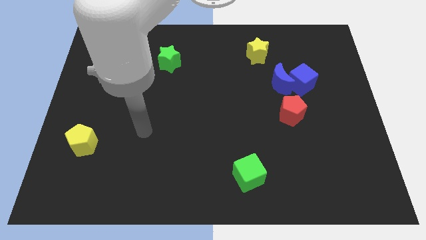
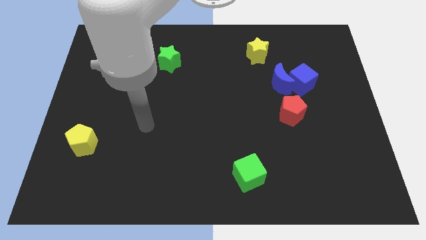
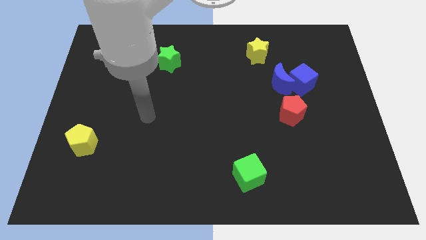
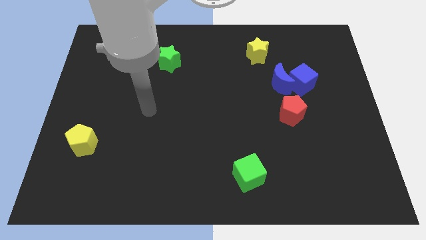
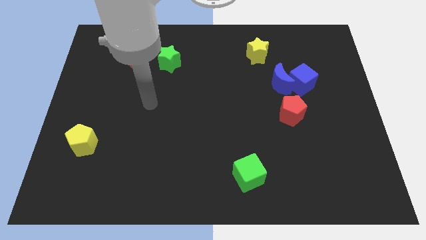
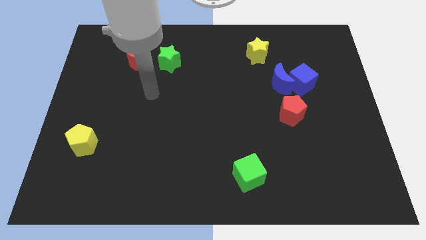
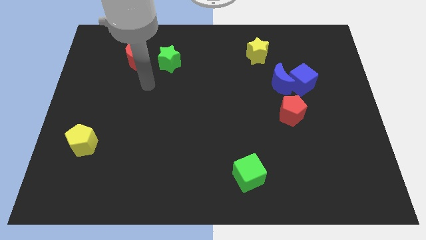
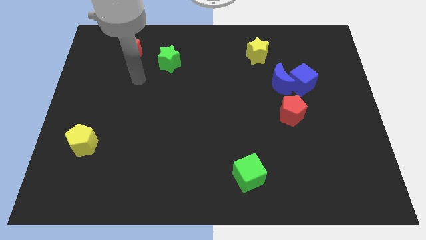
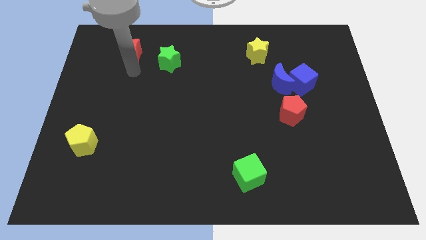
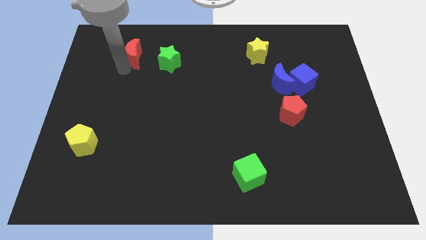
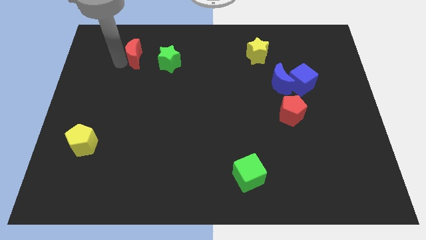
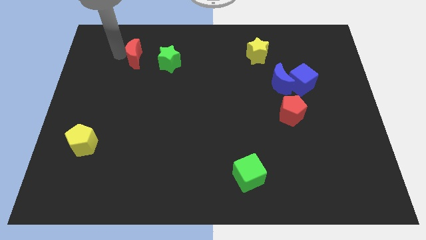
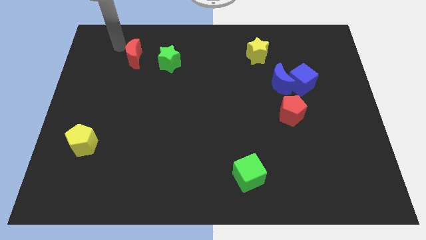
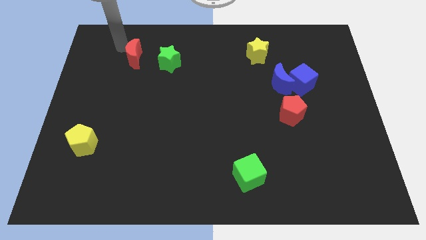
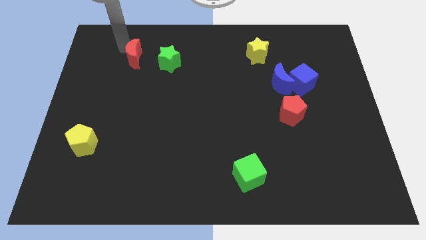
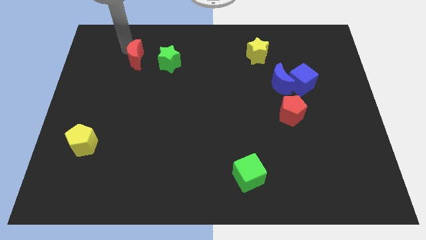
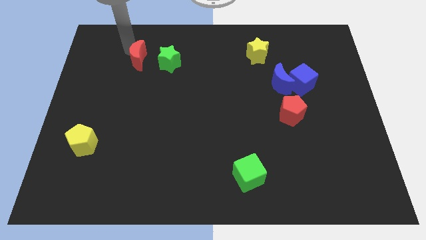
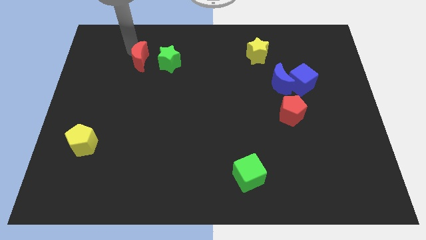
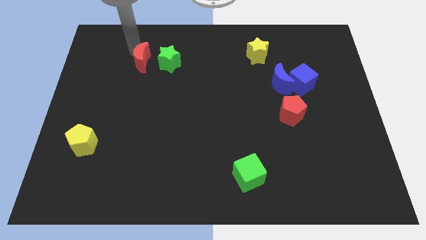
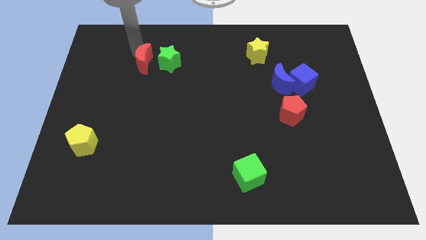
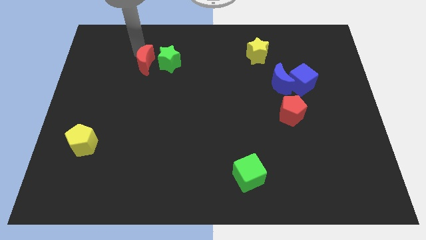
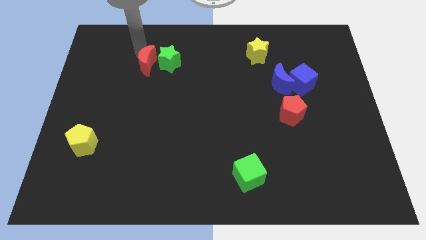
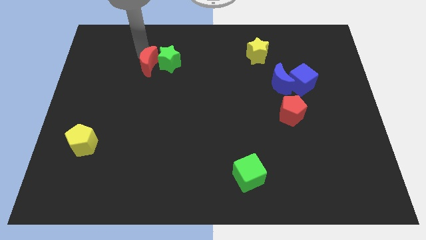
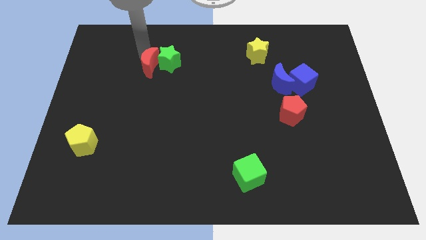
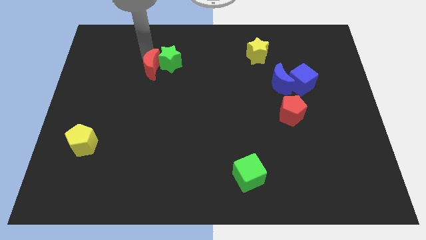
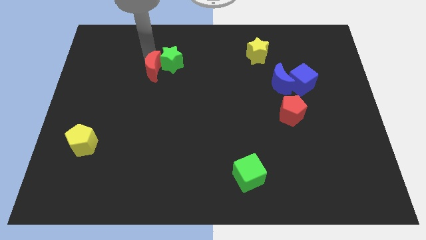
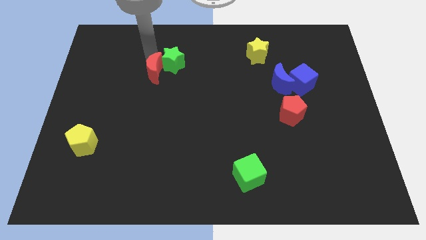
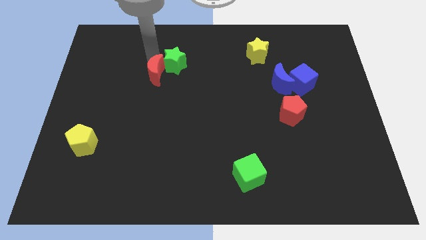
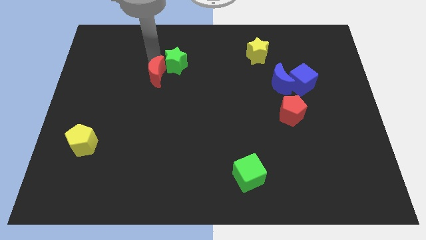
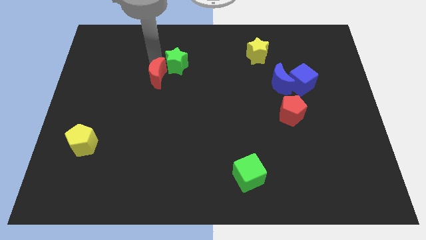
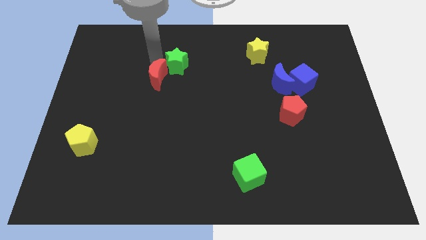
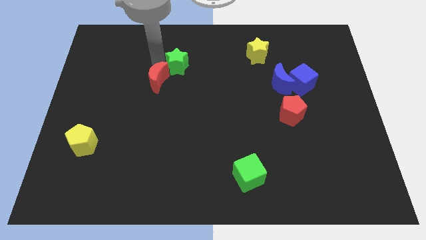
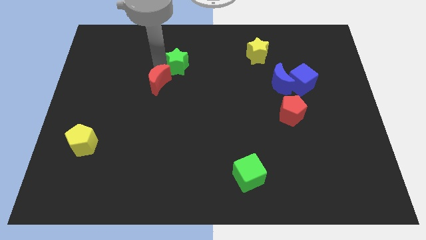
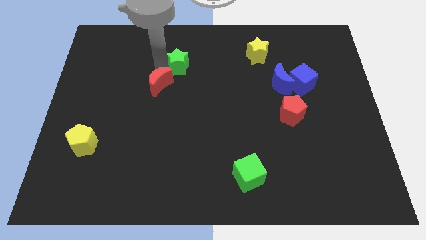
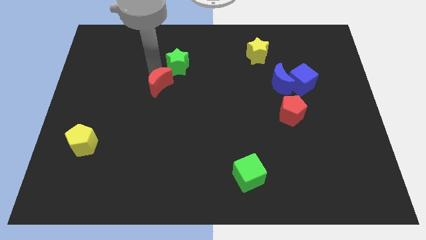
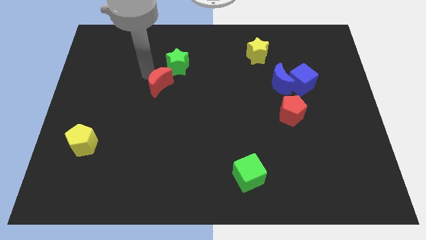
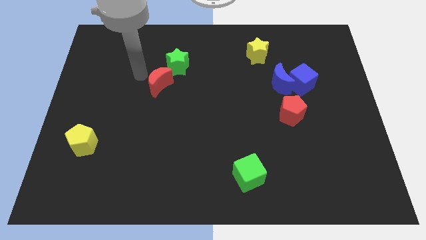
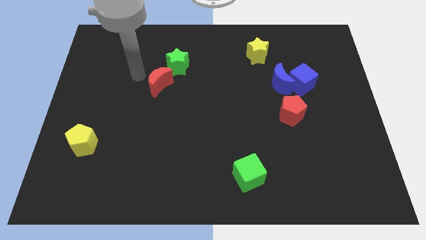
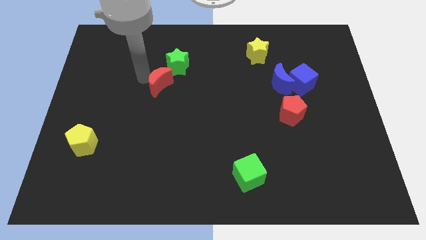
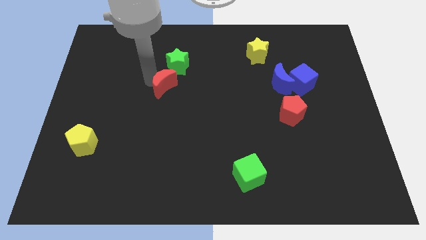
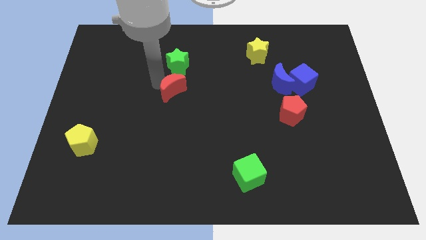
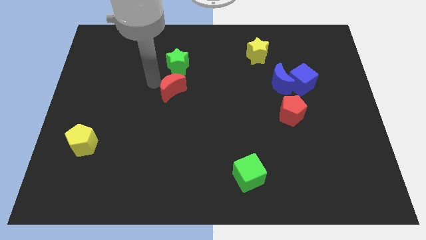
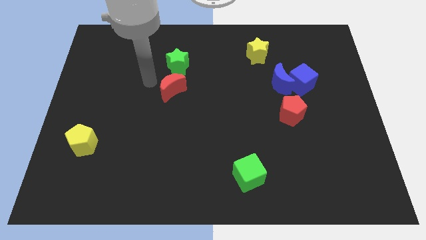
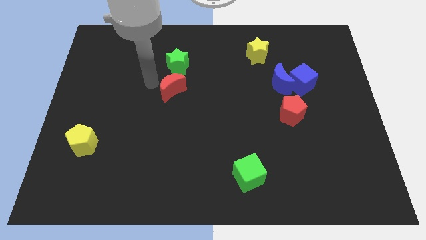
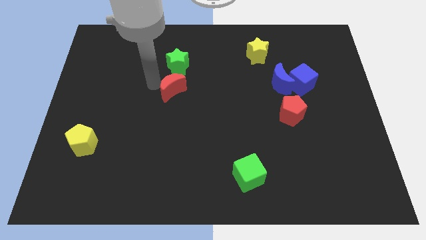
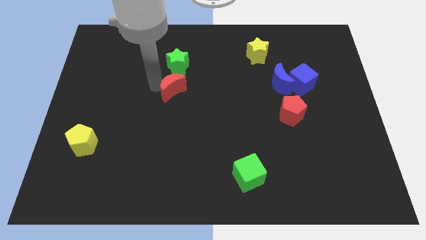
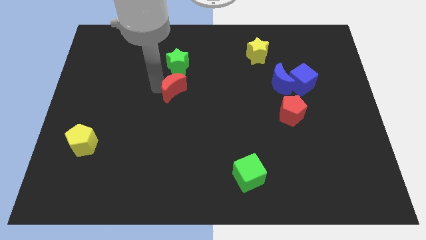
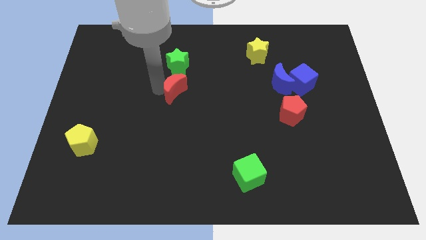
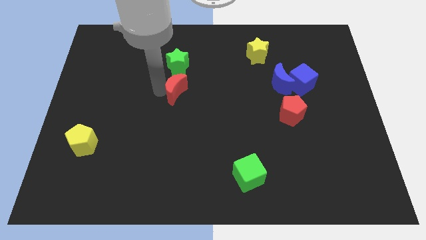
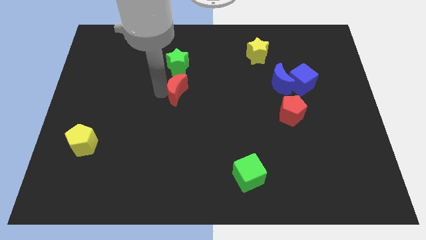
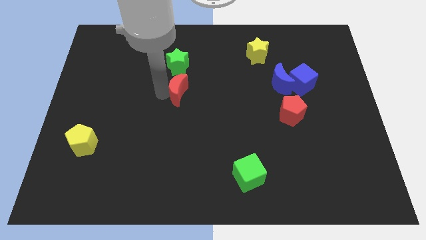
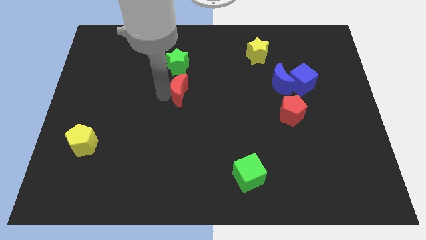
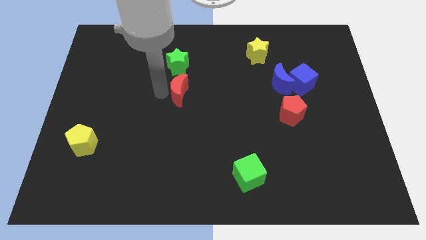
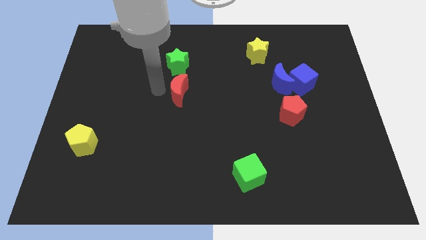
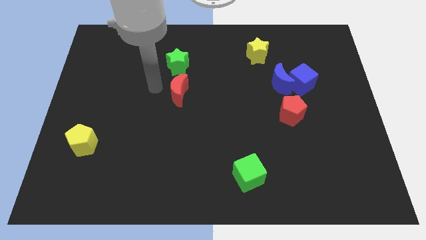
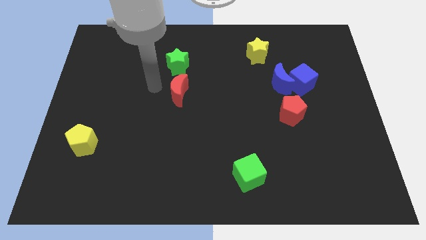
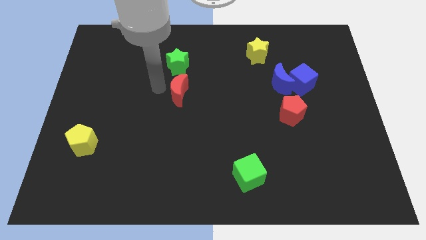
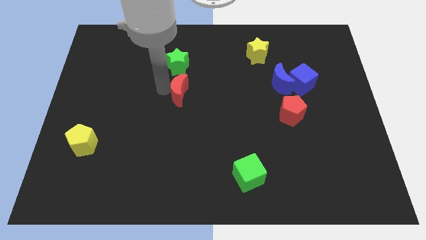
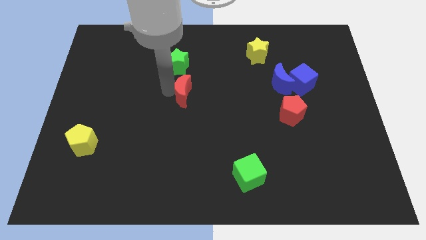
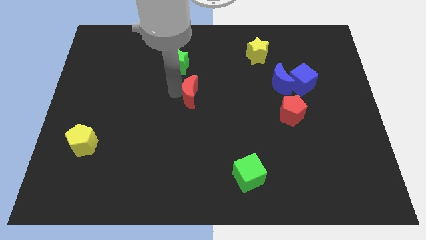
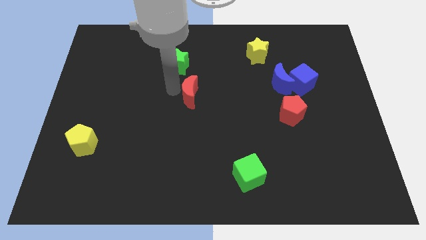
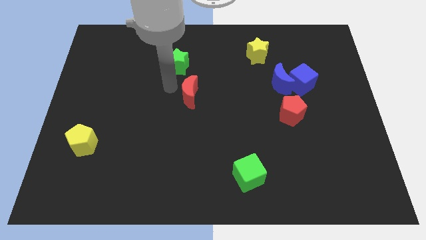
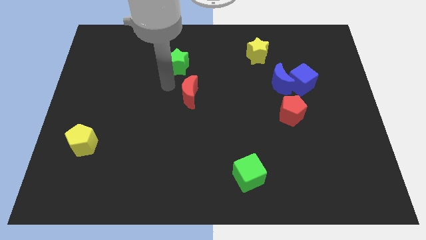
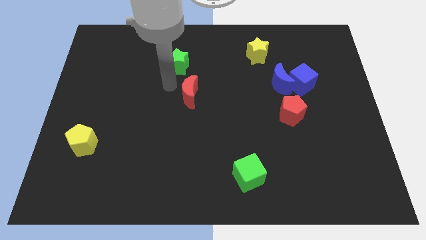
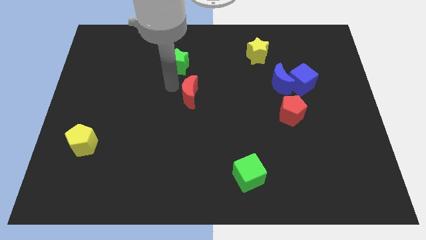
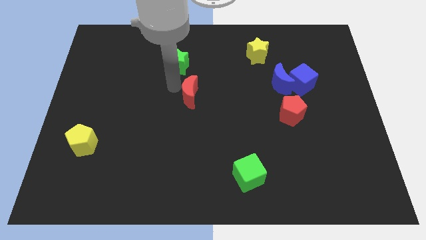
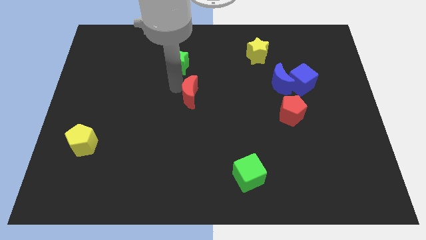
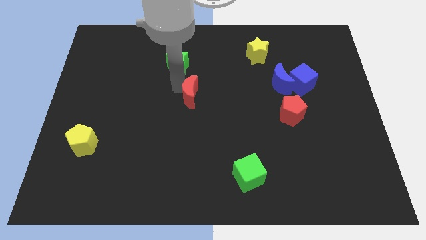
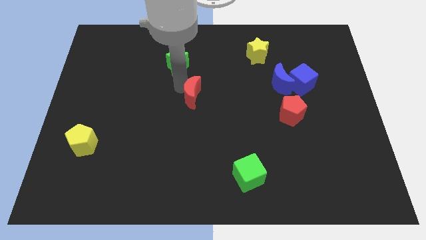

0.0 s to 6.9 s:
push the red moon downwards and to the right

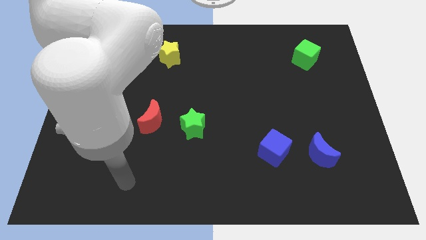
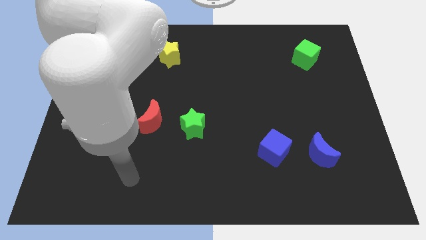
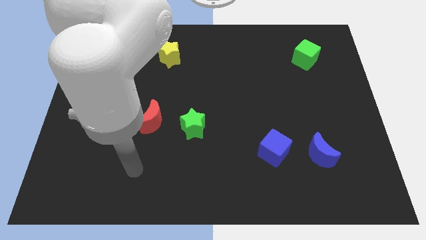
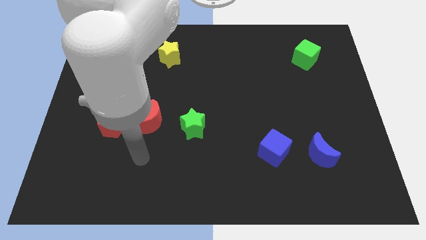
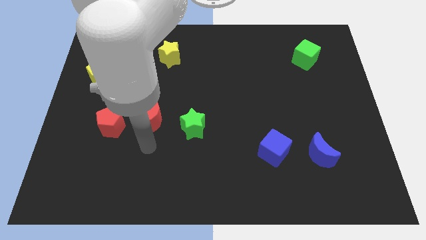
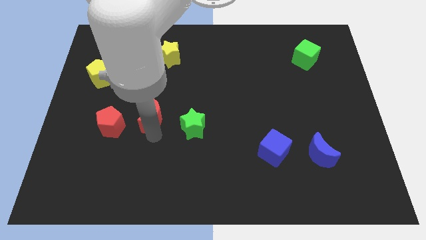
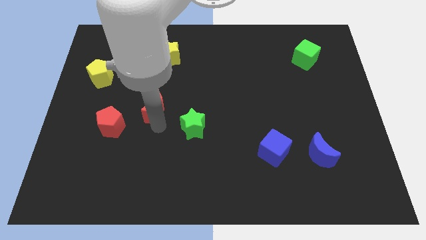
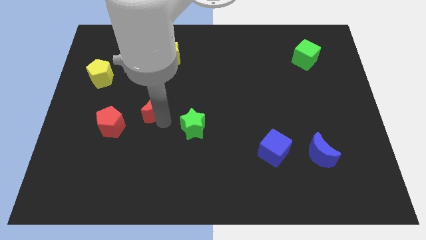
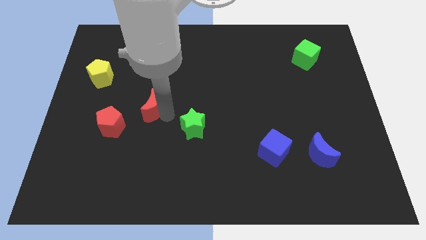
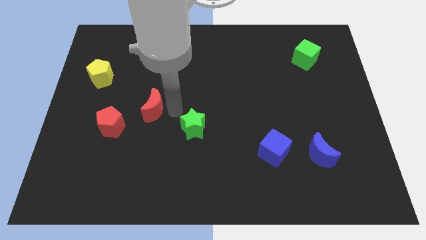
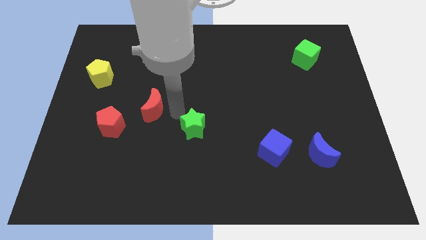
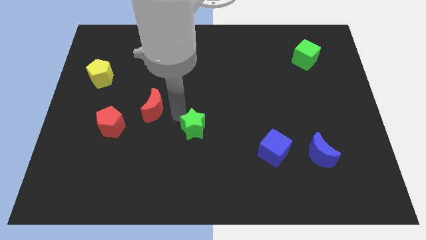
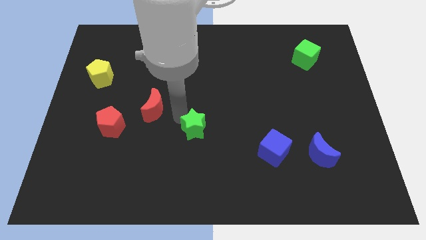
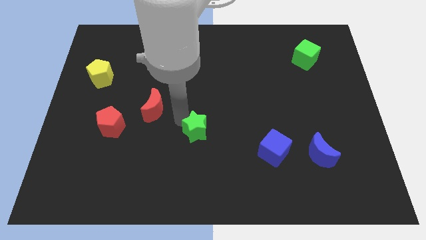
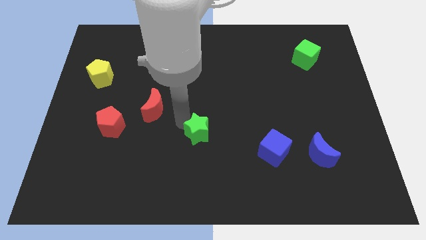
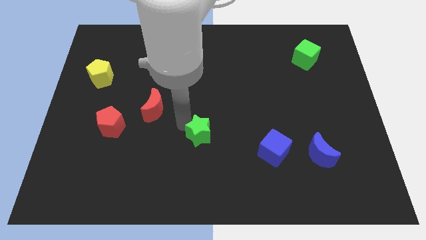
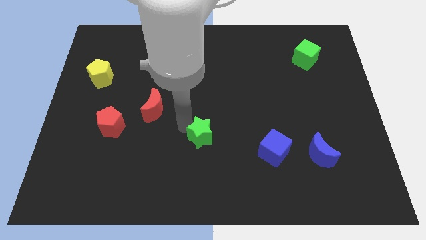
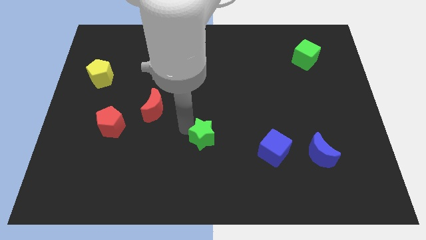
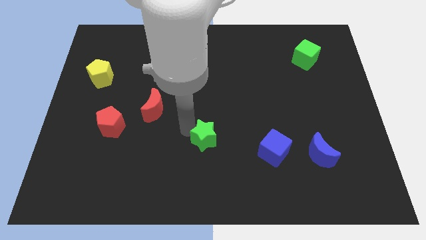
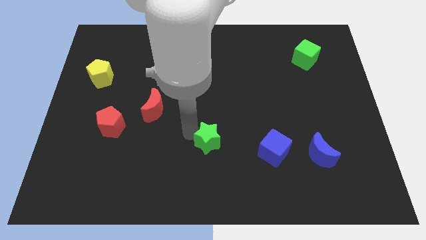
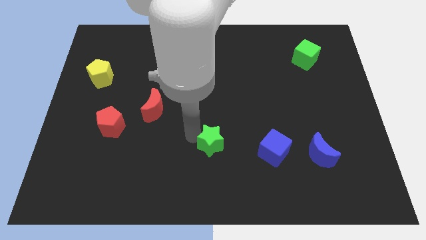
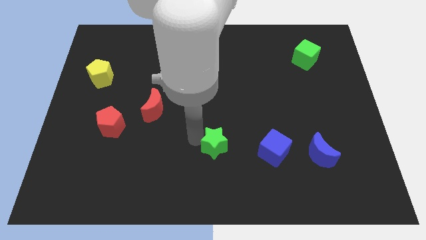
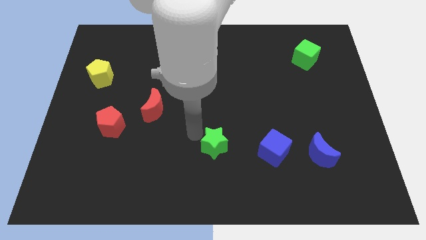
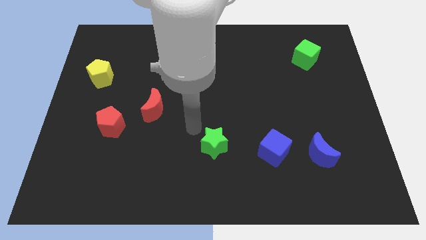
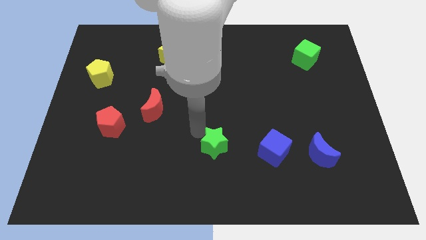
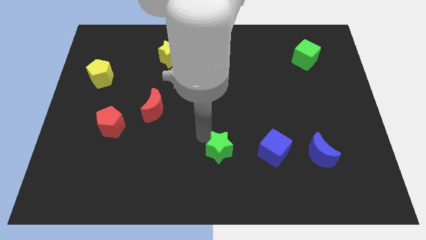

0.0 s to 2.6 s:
slightly move the green star downwards and right diagonally
